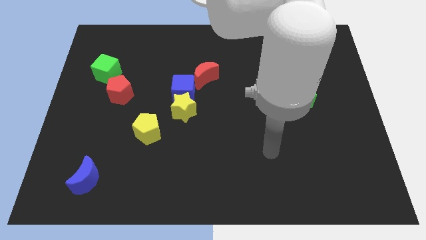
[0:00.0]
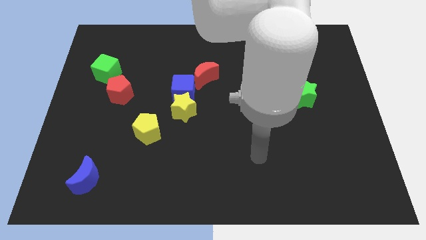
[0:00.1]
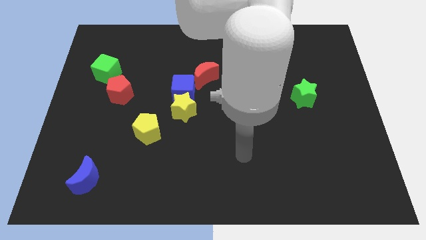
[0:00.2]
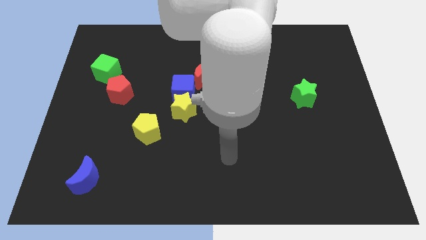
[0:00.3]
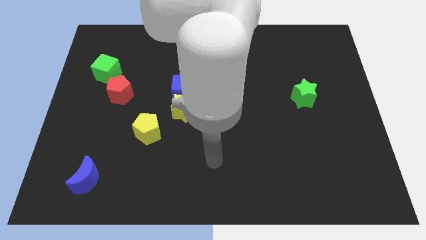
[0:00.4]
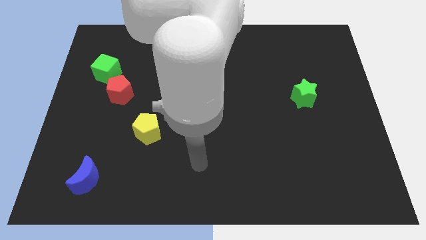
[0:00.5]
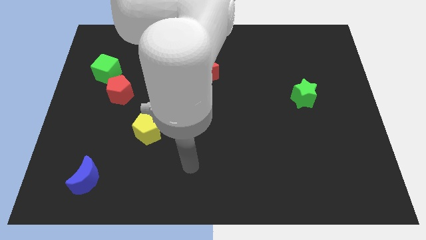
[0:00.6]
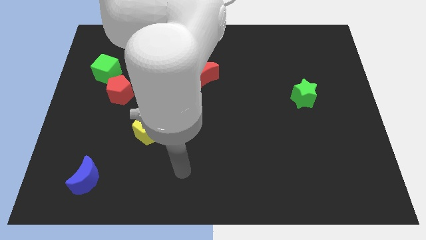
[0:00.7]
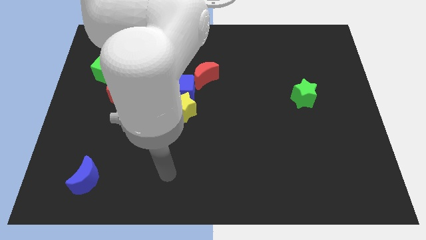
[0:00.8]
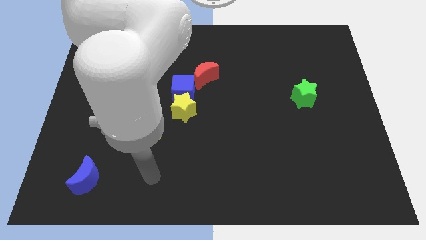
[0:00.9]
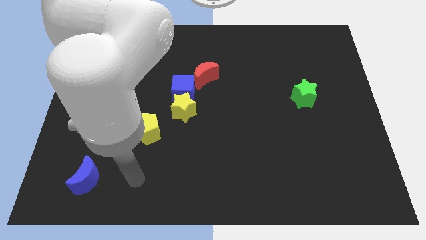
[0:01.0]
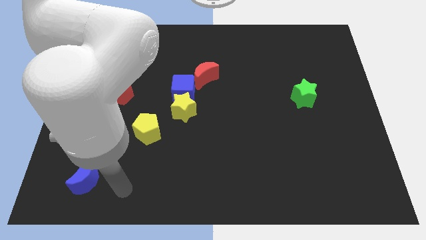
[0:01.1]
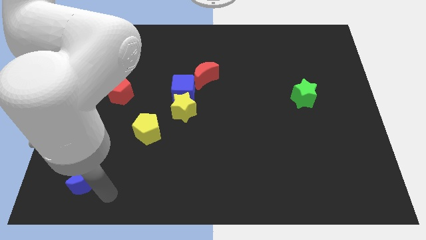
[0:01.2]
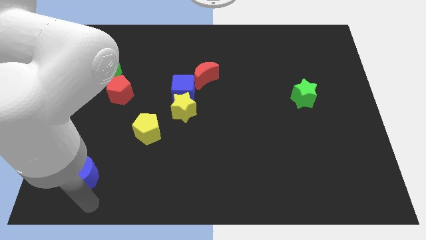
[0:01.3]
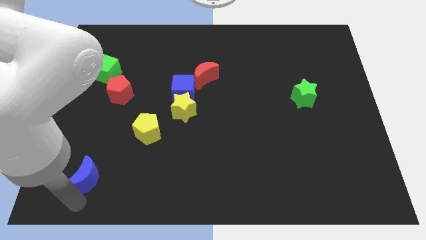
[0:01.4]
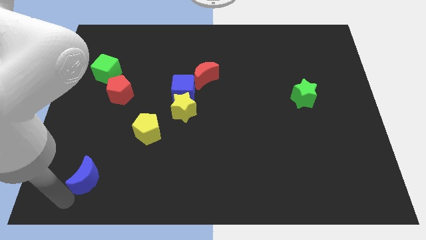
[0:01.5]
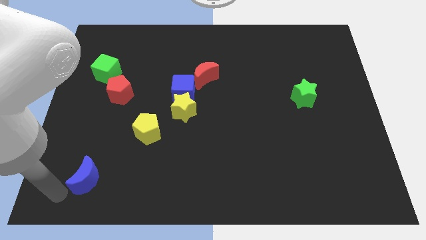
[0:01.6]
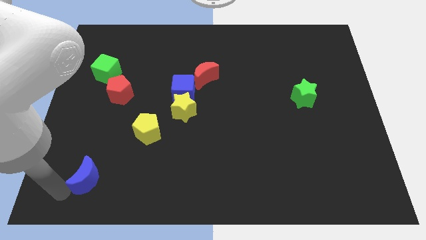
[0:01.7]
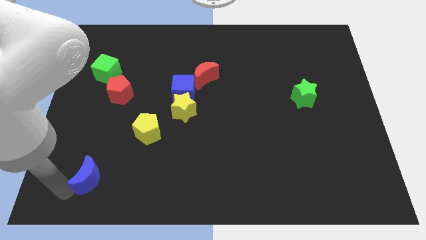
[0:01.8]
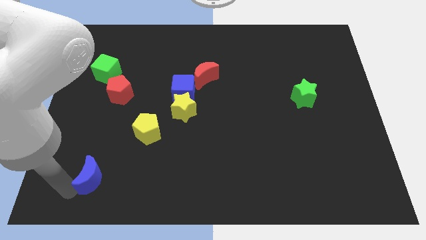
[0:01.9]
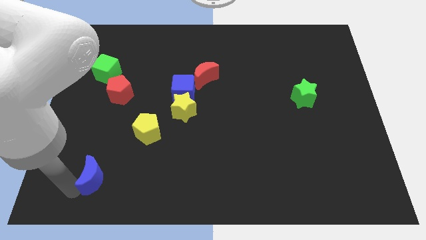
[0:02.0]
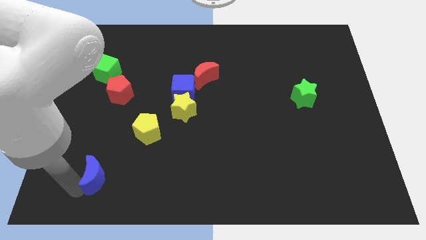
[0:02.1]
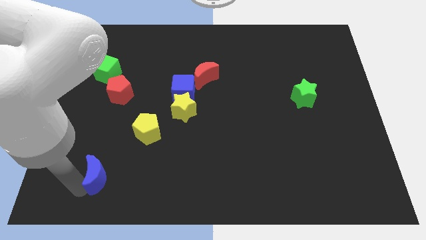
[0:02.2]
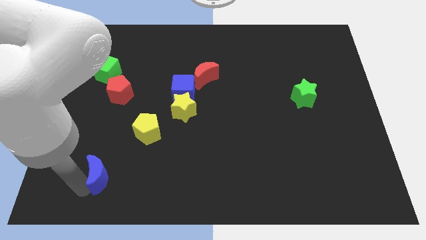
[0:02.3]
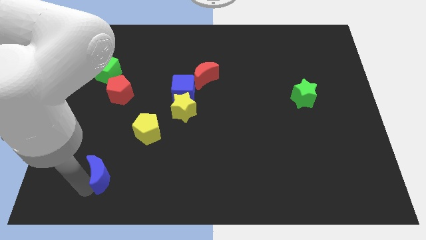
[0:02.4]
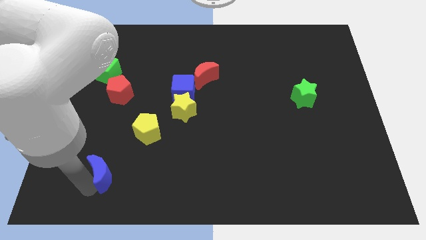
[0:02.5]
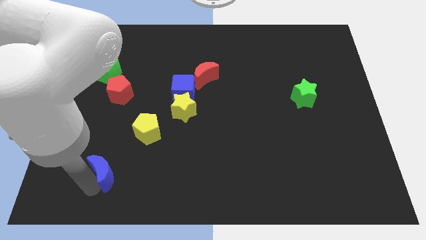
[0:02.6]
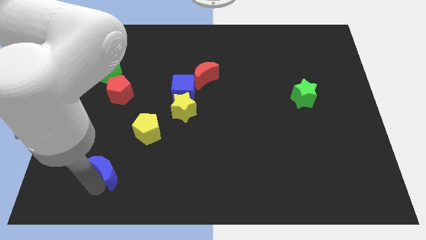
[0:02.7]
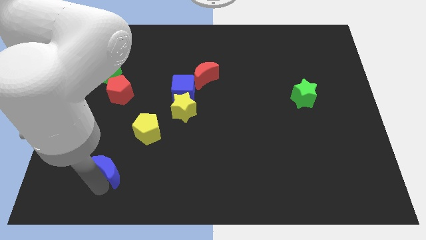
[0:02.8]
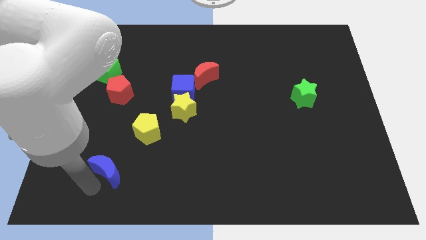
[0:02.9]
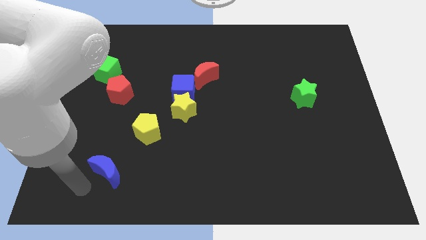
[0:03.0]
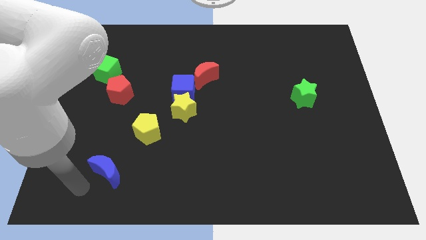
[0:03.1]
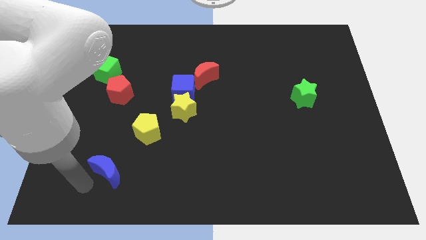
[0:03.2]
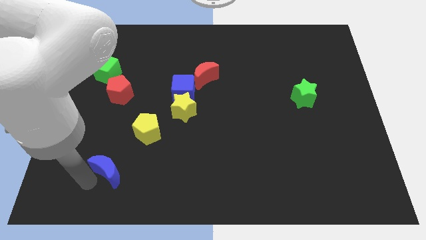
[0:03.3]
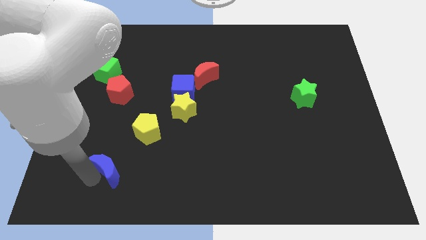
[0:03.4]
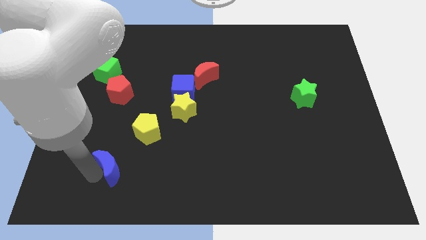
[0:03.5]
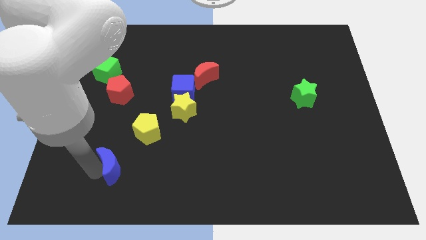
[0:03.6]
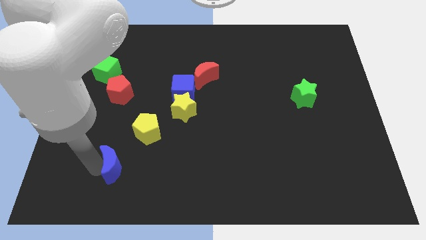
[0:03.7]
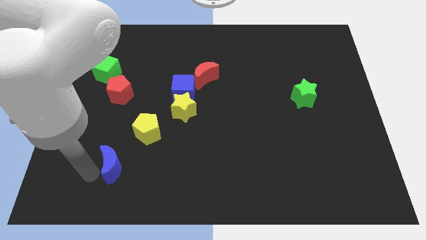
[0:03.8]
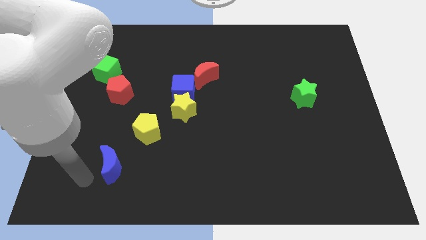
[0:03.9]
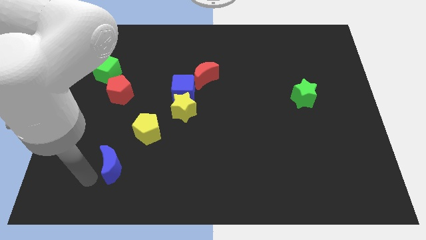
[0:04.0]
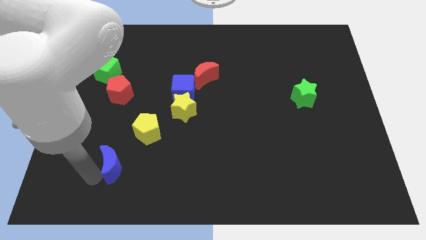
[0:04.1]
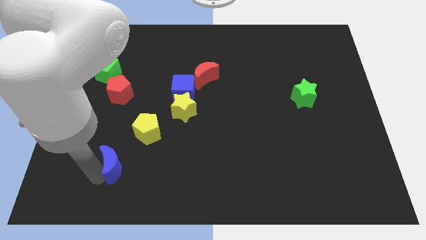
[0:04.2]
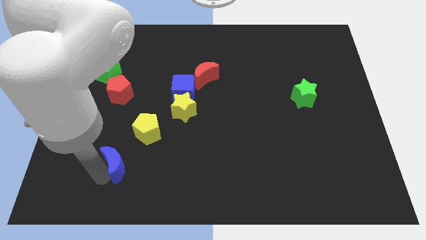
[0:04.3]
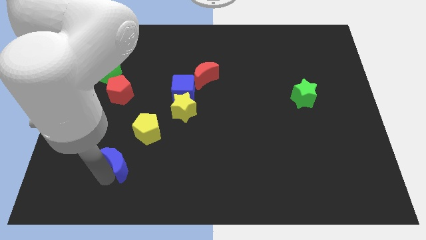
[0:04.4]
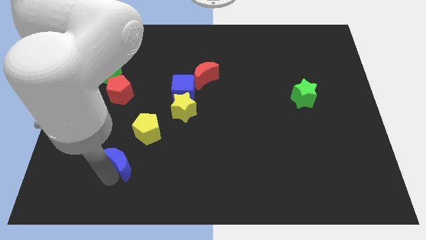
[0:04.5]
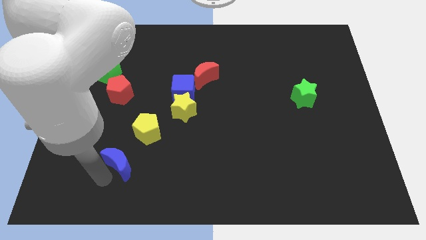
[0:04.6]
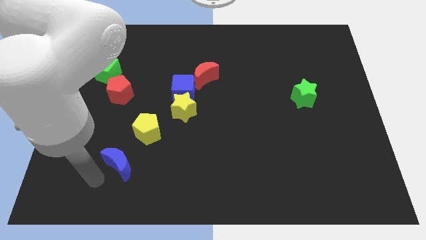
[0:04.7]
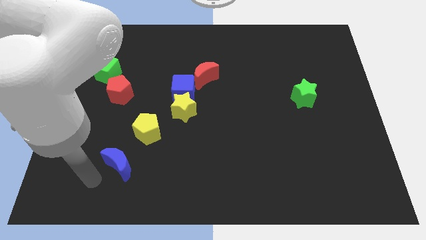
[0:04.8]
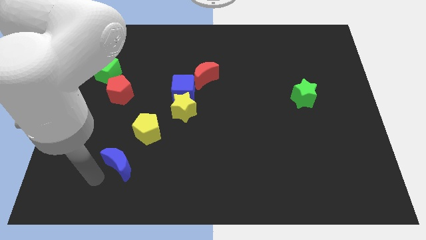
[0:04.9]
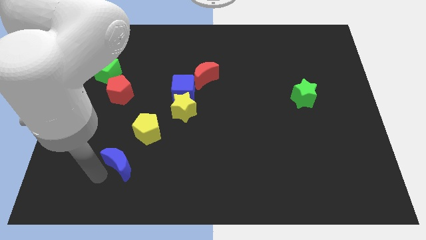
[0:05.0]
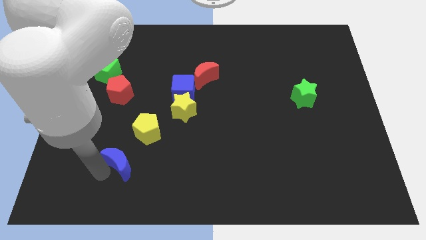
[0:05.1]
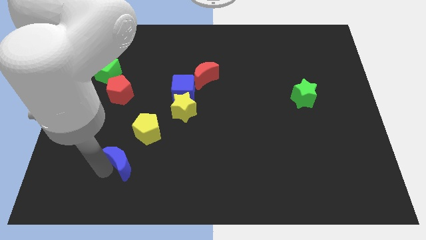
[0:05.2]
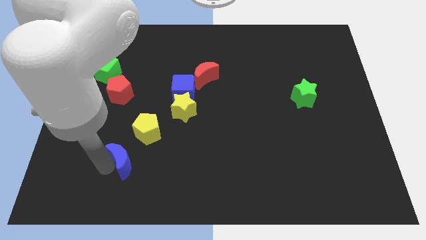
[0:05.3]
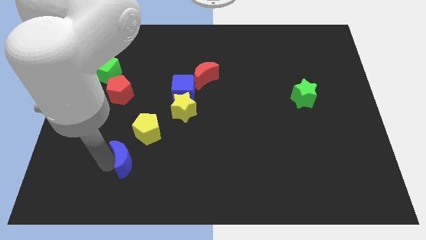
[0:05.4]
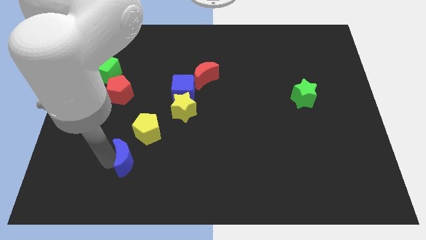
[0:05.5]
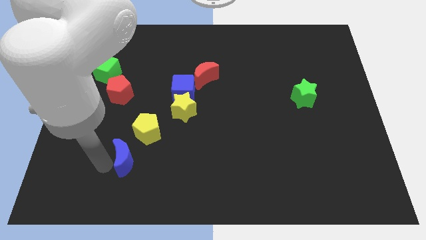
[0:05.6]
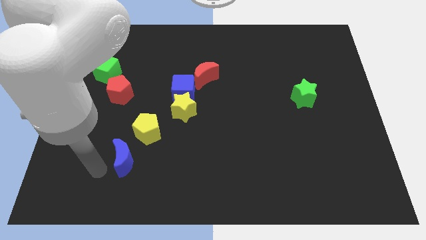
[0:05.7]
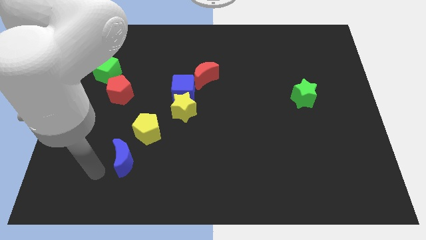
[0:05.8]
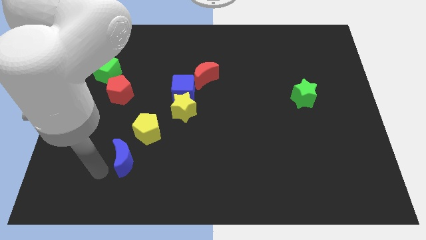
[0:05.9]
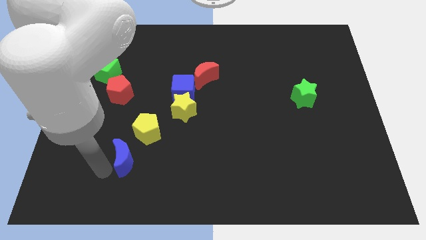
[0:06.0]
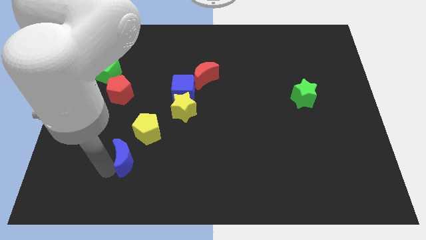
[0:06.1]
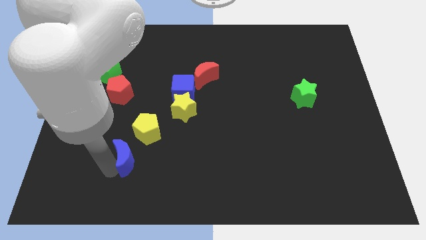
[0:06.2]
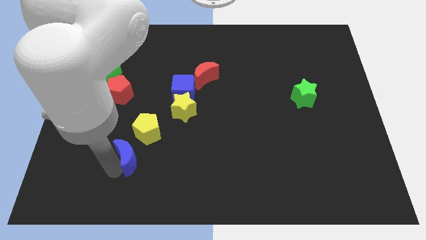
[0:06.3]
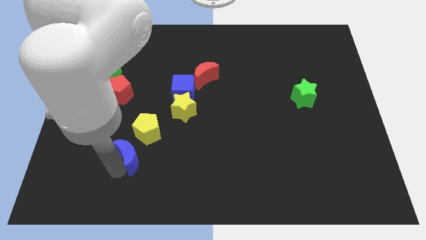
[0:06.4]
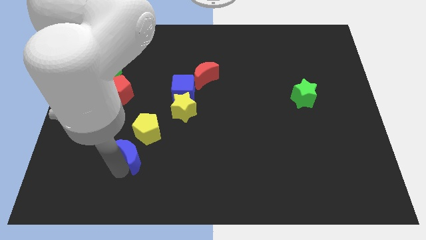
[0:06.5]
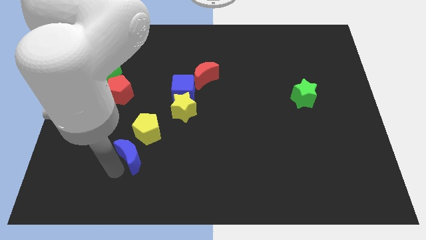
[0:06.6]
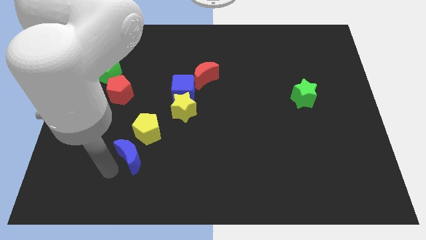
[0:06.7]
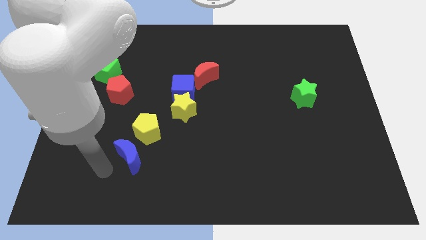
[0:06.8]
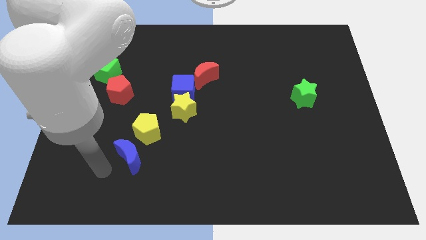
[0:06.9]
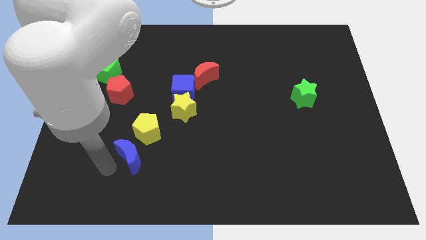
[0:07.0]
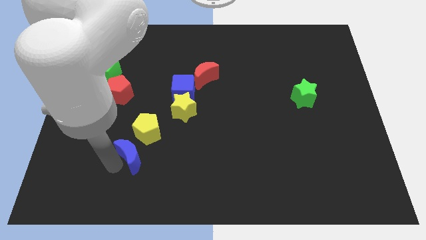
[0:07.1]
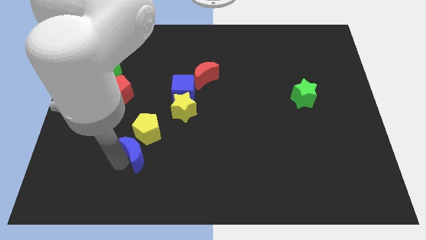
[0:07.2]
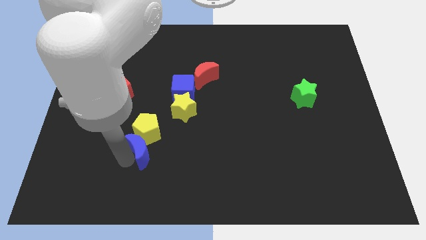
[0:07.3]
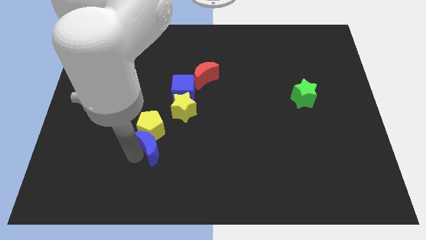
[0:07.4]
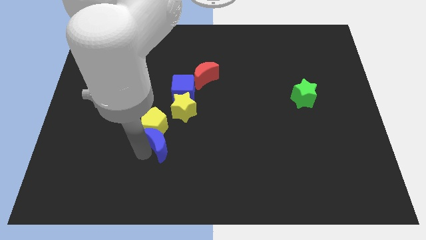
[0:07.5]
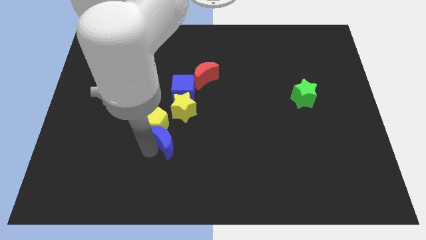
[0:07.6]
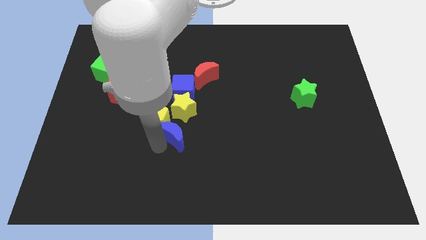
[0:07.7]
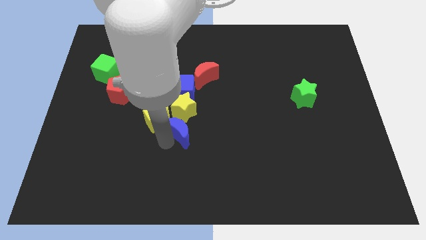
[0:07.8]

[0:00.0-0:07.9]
push the blue moon to the center of the board
